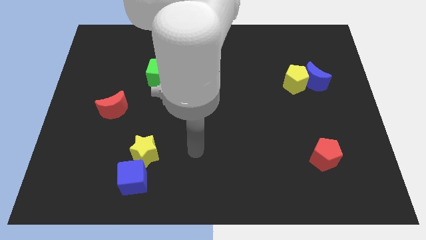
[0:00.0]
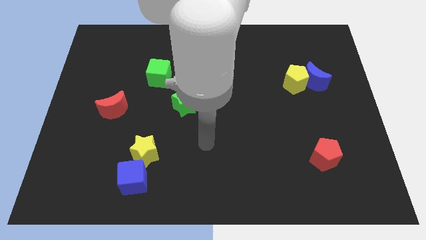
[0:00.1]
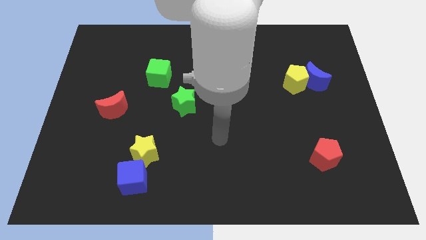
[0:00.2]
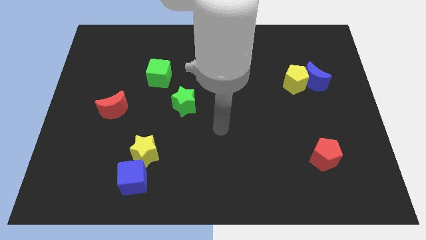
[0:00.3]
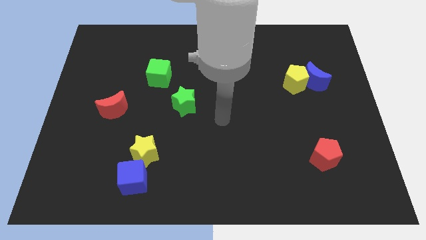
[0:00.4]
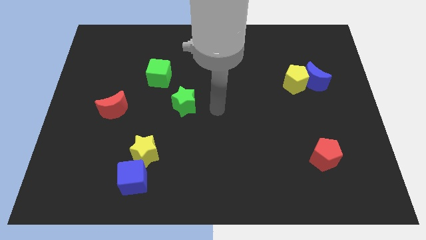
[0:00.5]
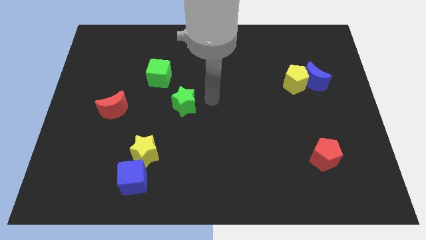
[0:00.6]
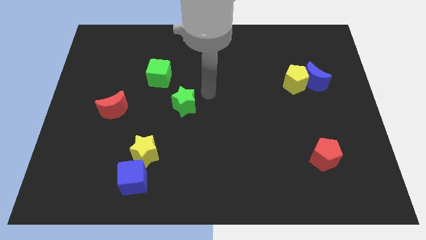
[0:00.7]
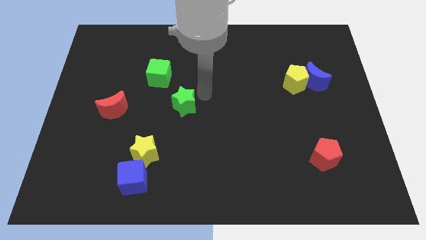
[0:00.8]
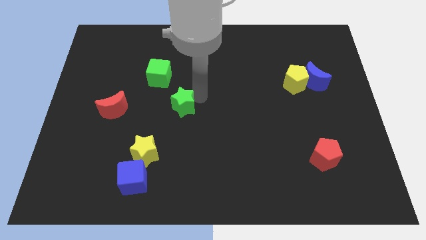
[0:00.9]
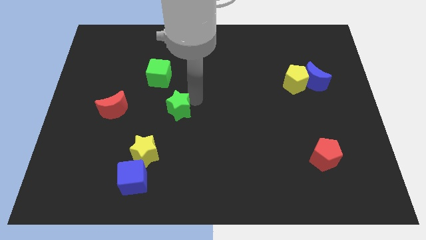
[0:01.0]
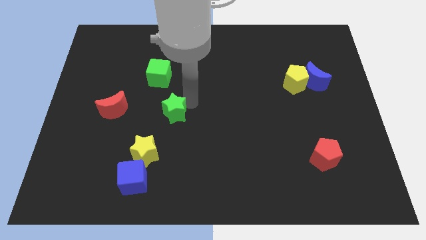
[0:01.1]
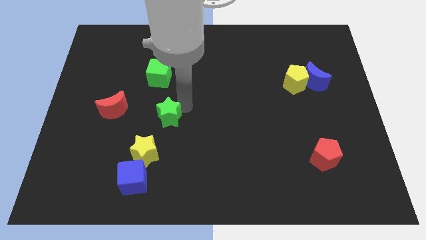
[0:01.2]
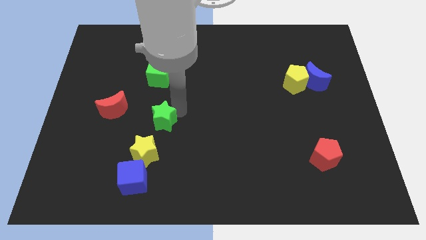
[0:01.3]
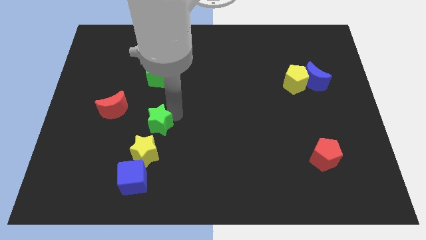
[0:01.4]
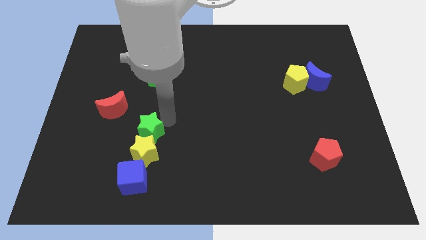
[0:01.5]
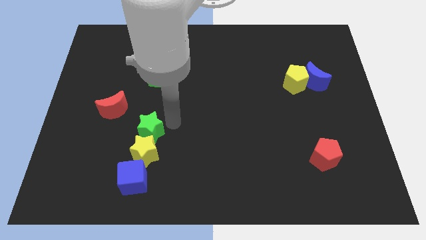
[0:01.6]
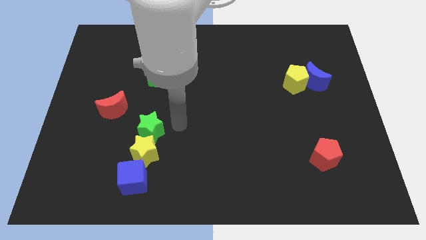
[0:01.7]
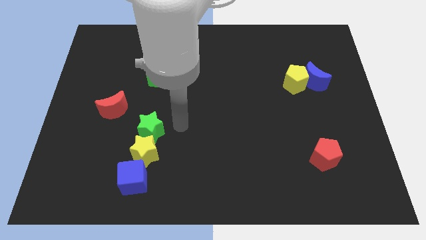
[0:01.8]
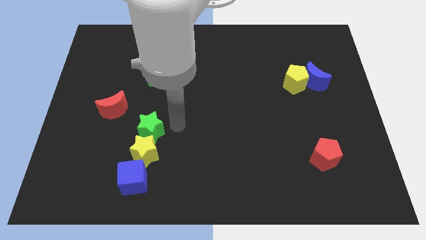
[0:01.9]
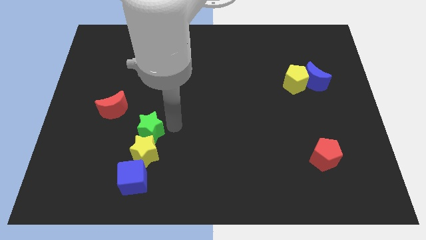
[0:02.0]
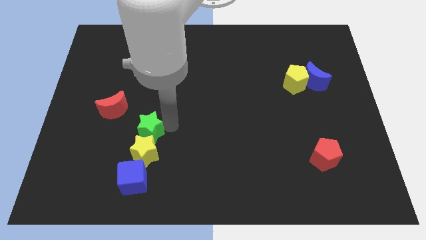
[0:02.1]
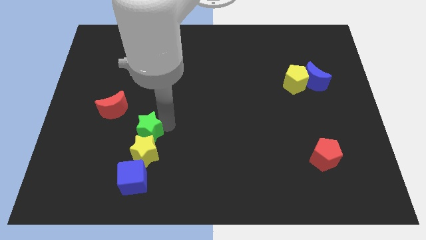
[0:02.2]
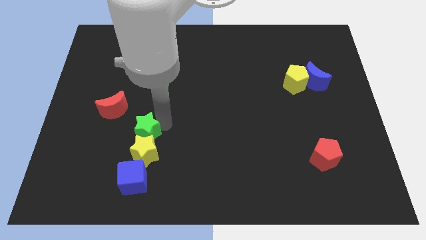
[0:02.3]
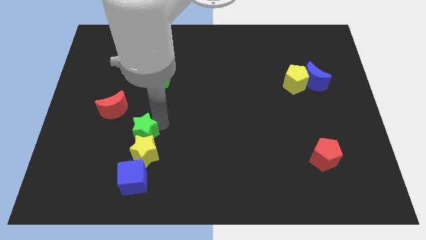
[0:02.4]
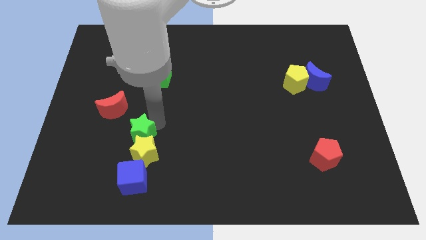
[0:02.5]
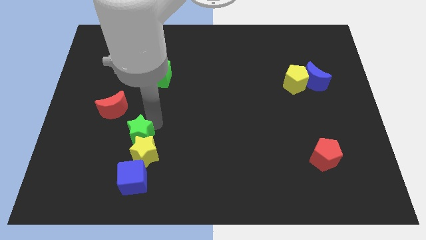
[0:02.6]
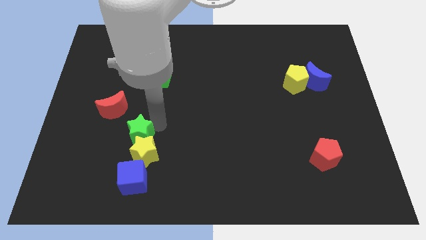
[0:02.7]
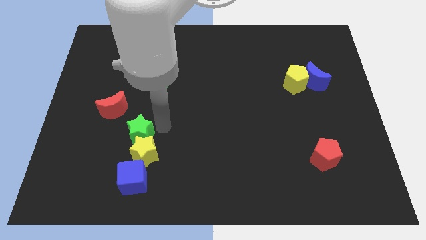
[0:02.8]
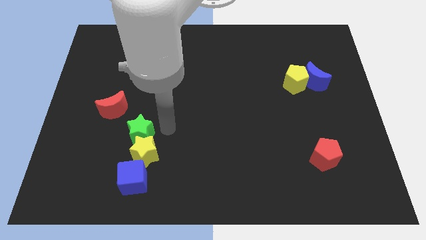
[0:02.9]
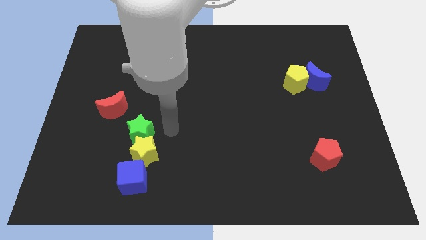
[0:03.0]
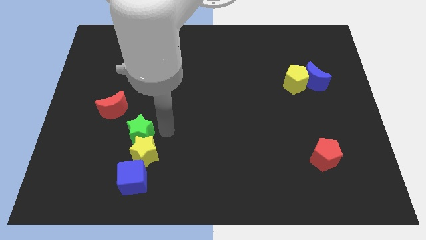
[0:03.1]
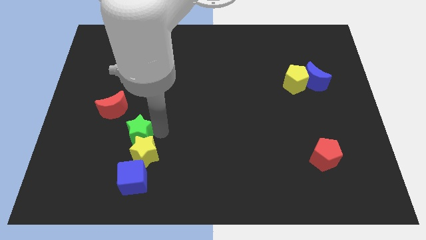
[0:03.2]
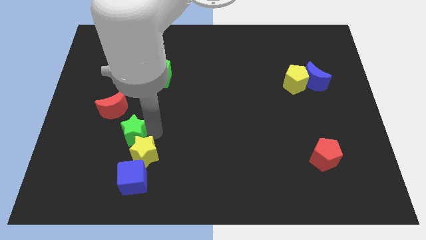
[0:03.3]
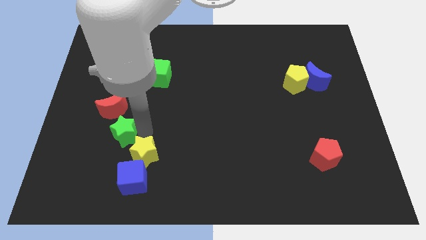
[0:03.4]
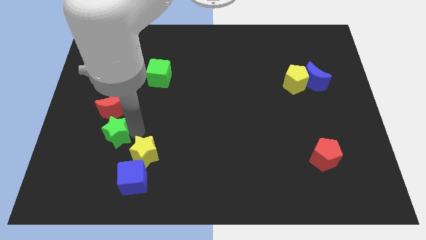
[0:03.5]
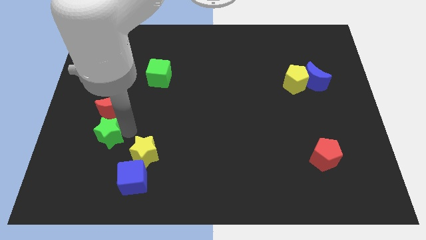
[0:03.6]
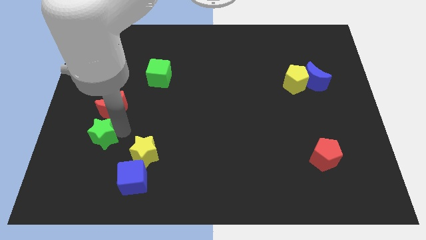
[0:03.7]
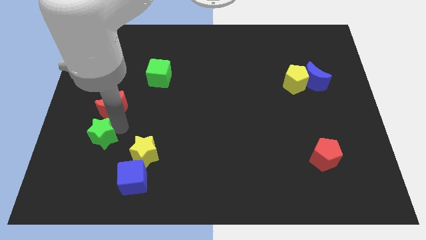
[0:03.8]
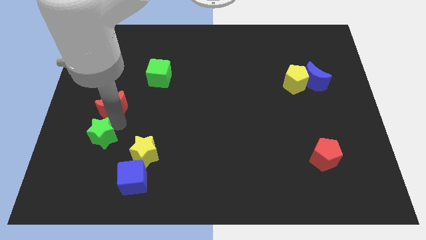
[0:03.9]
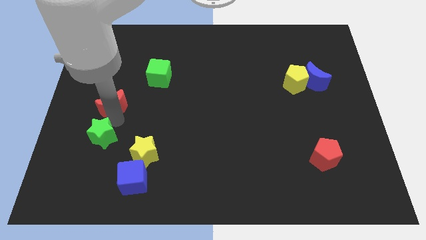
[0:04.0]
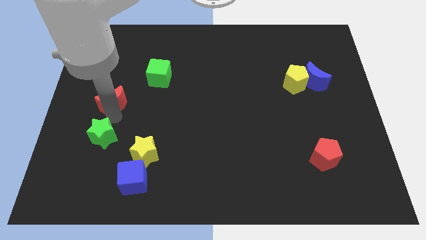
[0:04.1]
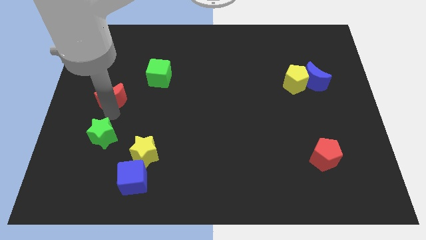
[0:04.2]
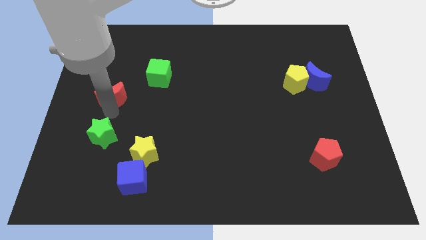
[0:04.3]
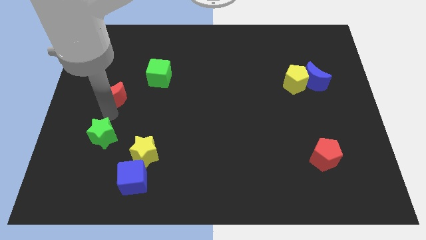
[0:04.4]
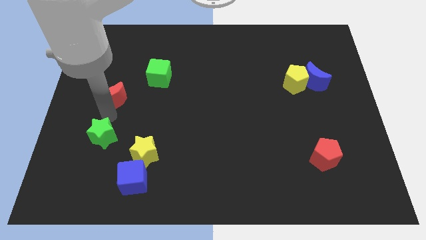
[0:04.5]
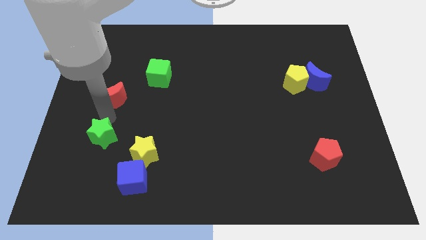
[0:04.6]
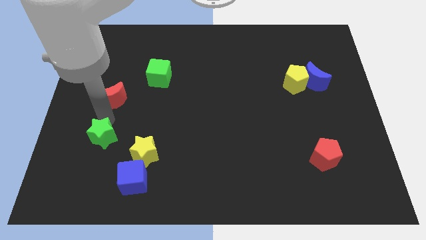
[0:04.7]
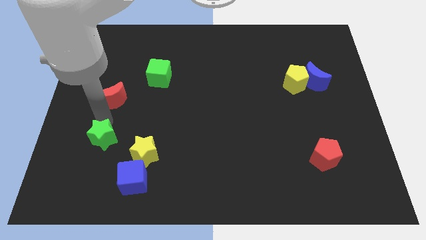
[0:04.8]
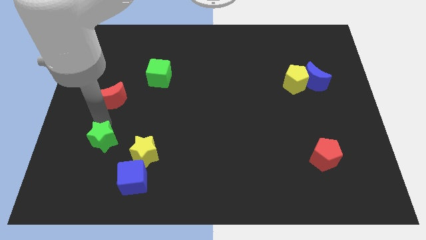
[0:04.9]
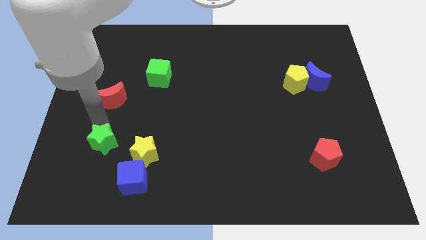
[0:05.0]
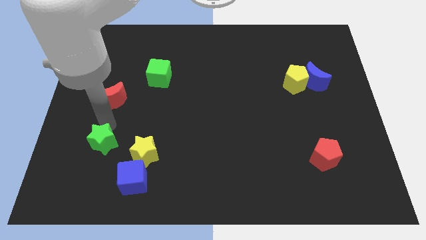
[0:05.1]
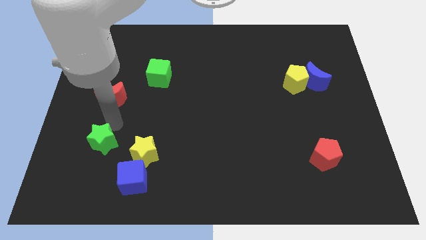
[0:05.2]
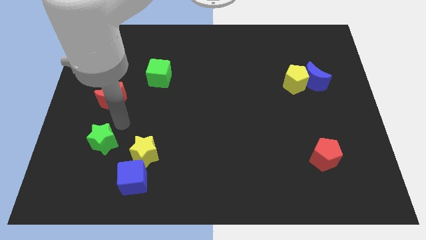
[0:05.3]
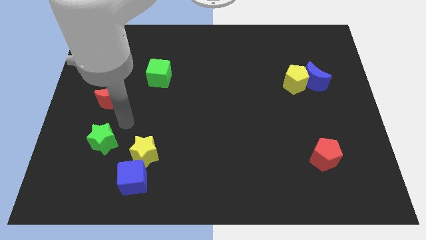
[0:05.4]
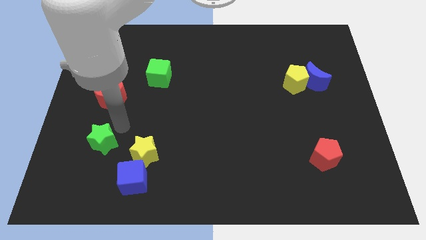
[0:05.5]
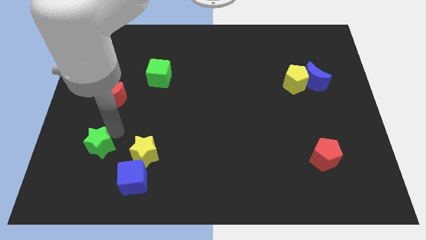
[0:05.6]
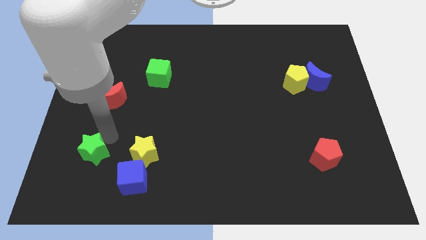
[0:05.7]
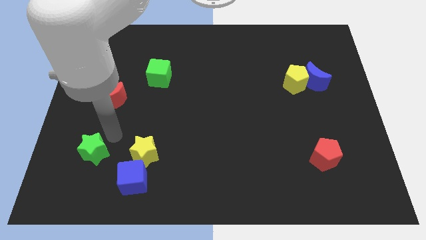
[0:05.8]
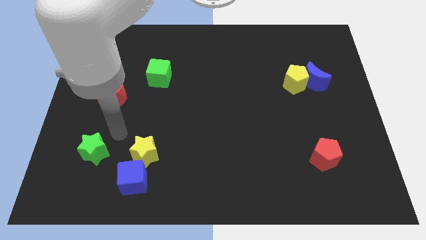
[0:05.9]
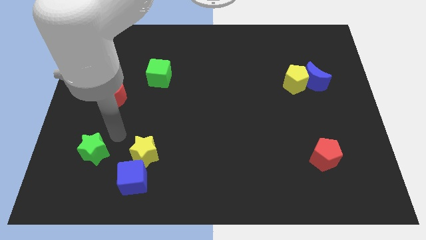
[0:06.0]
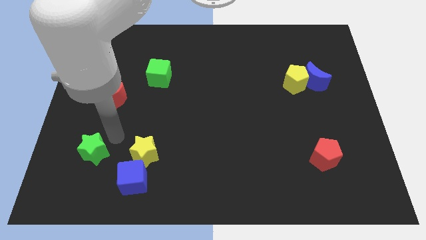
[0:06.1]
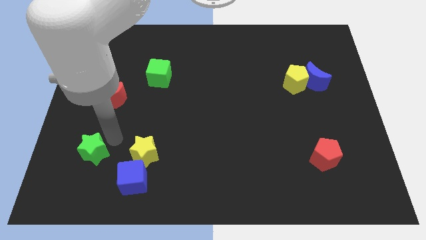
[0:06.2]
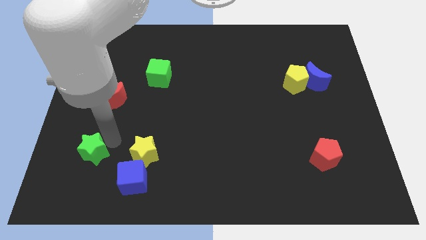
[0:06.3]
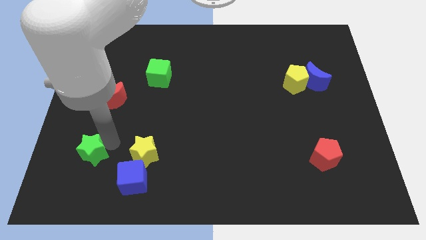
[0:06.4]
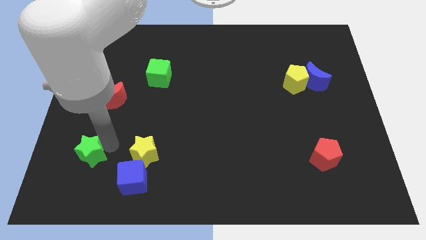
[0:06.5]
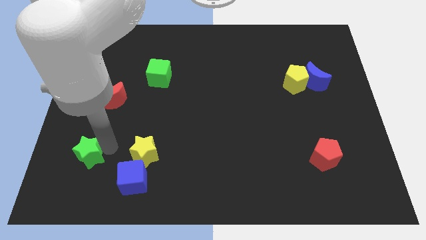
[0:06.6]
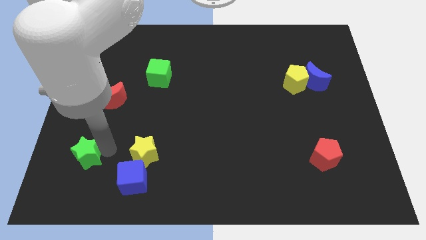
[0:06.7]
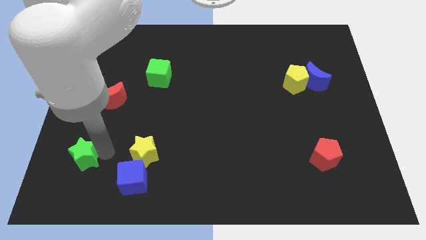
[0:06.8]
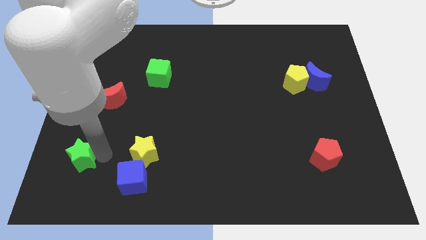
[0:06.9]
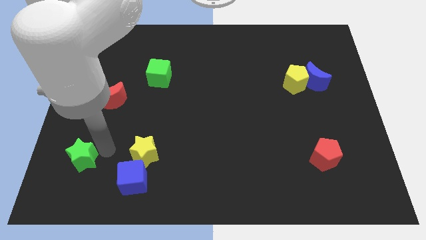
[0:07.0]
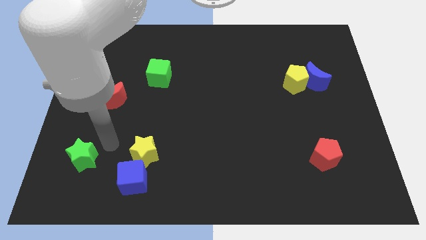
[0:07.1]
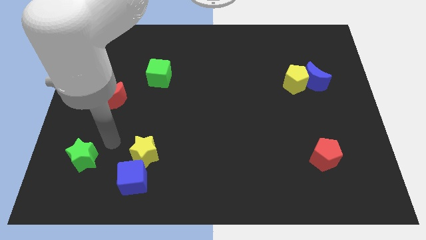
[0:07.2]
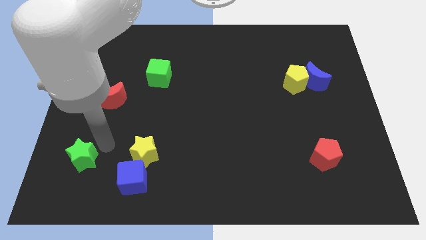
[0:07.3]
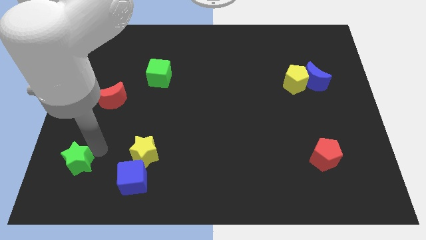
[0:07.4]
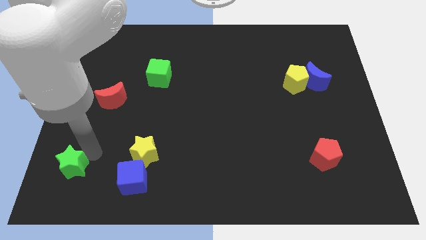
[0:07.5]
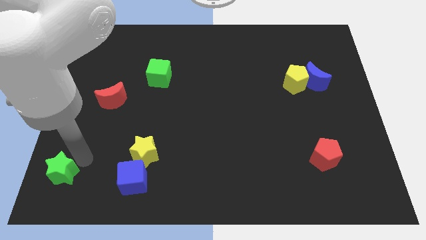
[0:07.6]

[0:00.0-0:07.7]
move the green star to the lower left corner
